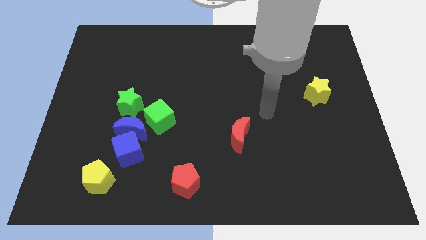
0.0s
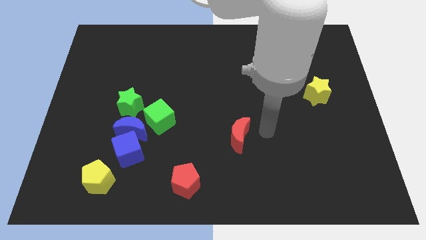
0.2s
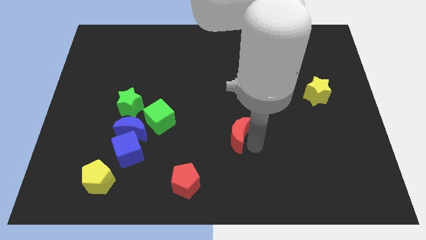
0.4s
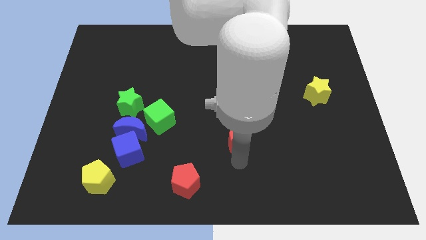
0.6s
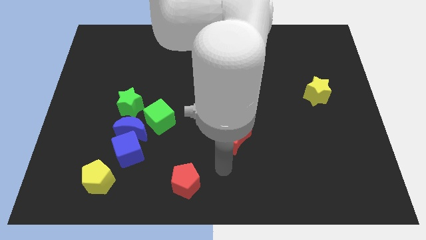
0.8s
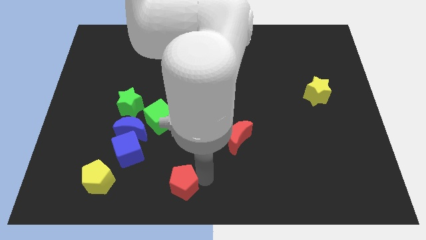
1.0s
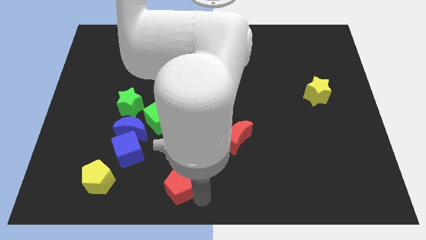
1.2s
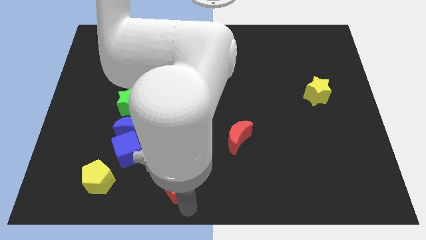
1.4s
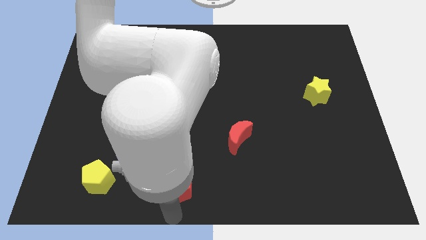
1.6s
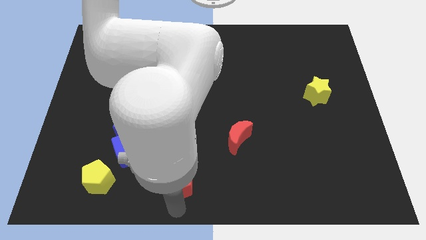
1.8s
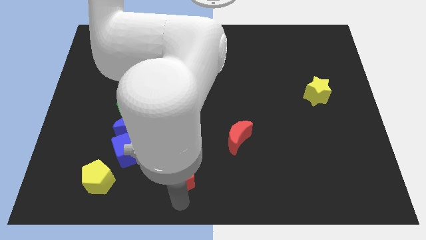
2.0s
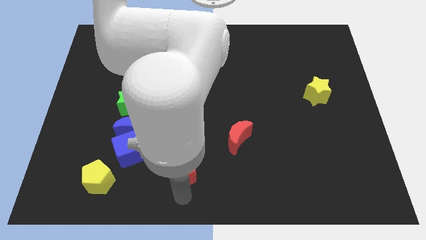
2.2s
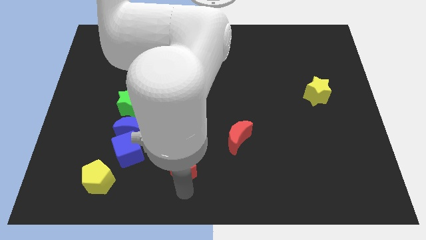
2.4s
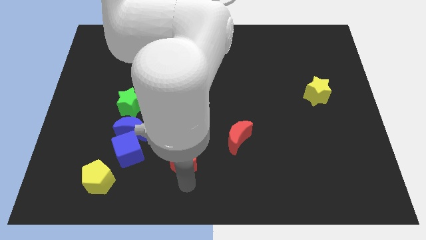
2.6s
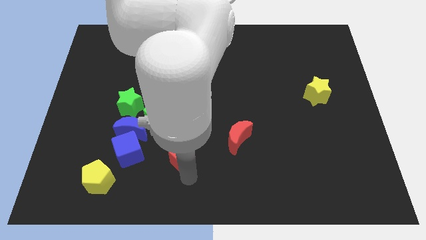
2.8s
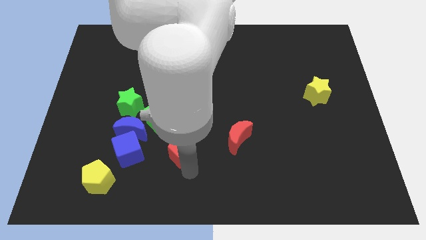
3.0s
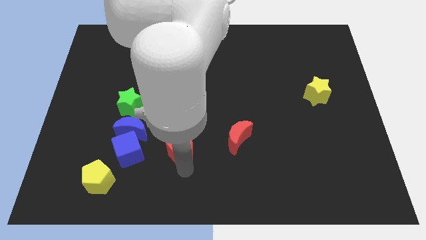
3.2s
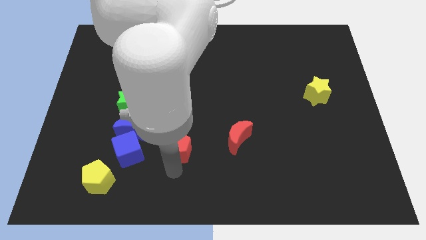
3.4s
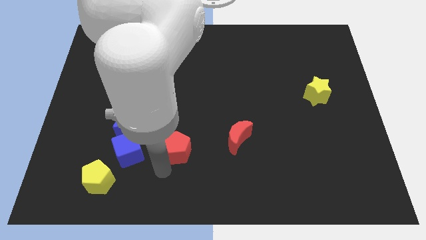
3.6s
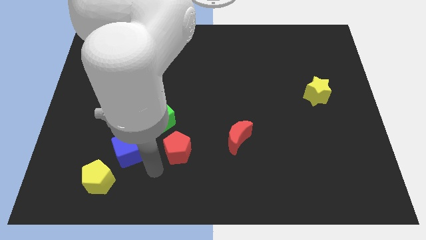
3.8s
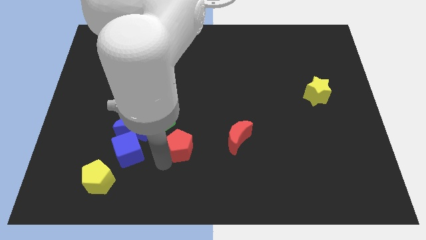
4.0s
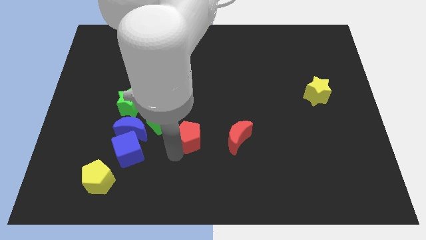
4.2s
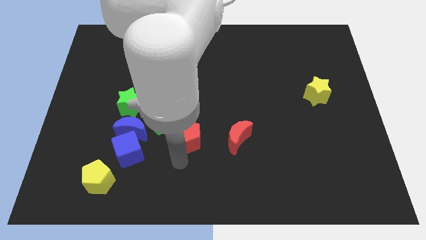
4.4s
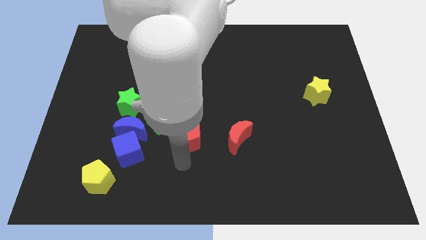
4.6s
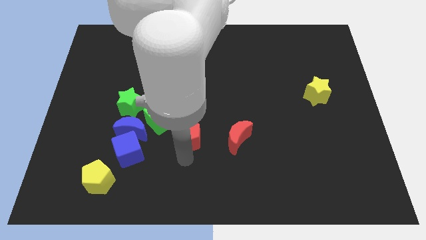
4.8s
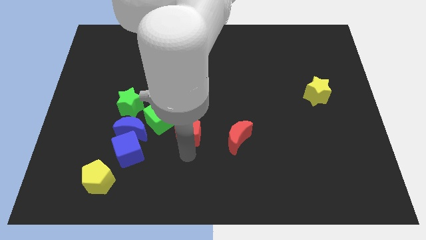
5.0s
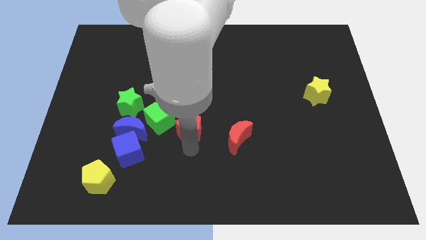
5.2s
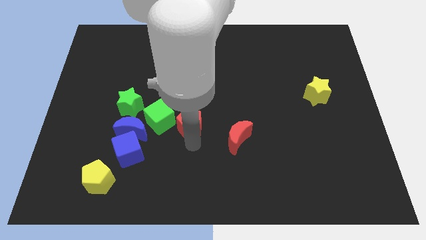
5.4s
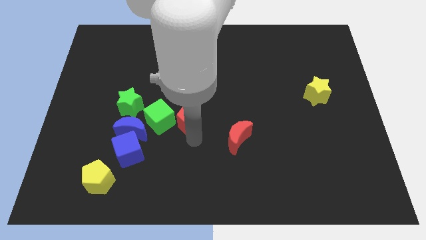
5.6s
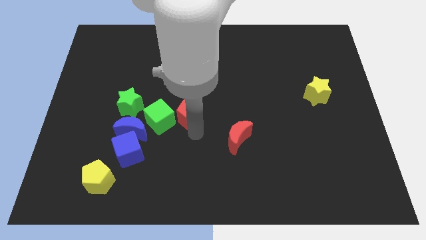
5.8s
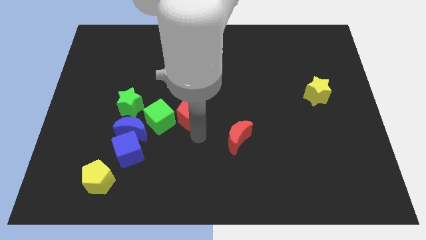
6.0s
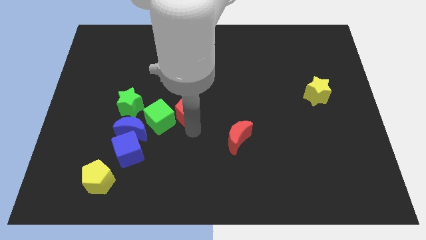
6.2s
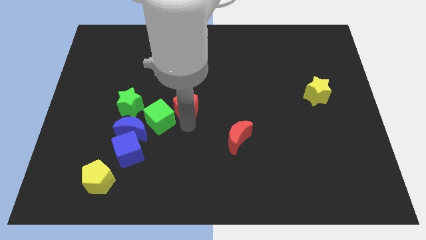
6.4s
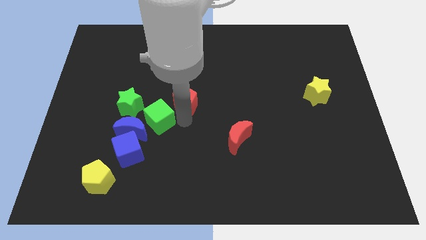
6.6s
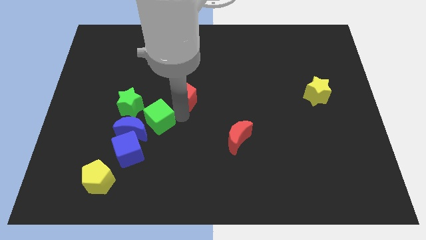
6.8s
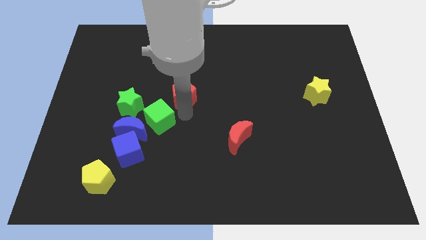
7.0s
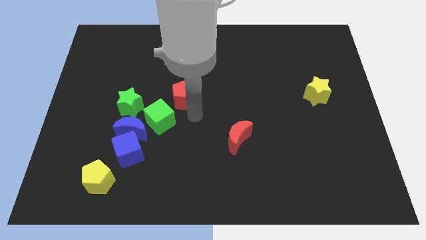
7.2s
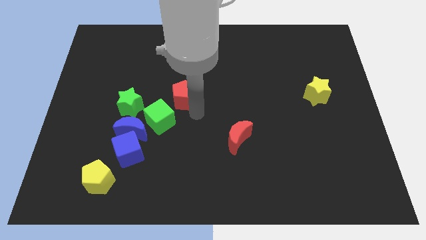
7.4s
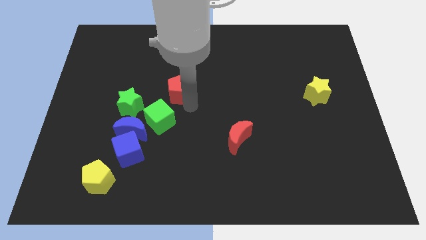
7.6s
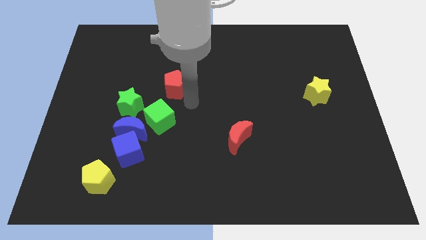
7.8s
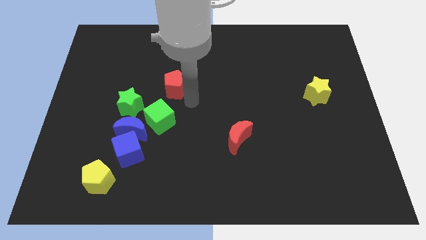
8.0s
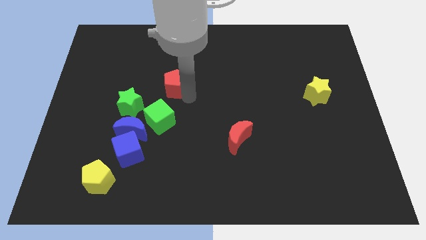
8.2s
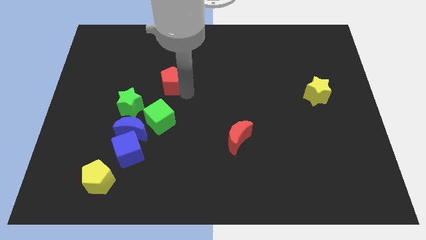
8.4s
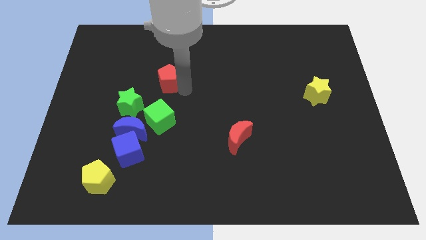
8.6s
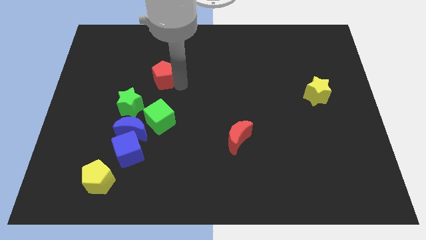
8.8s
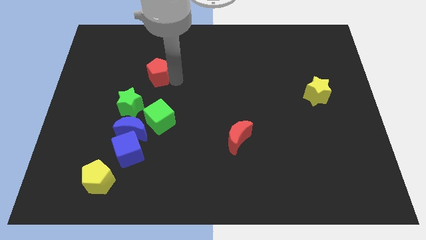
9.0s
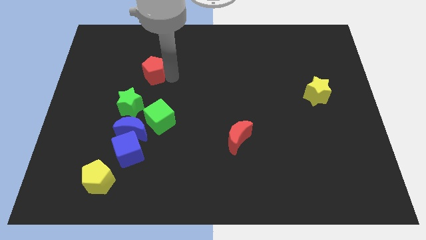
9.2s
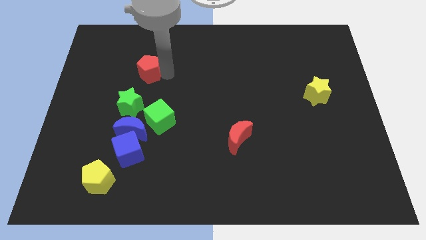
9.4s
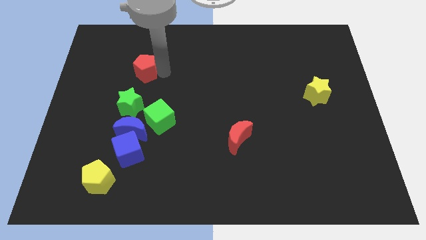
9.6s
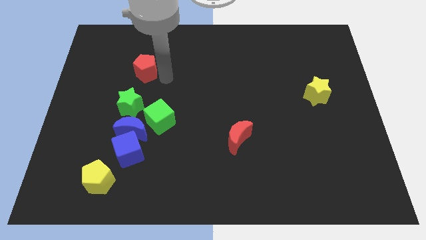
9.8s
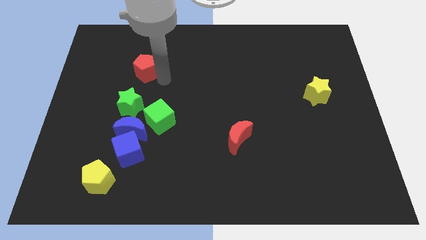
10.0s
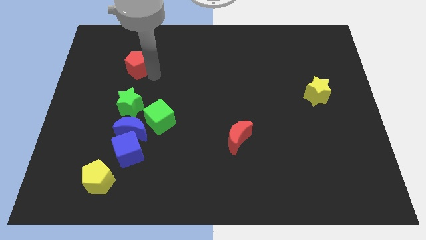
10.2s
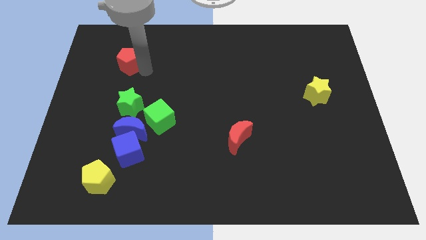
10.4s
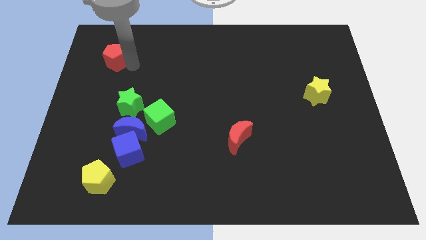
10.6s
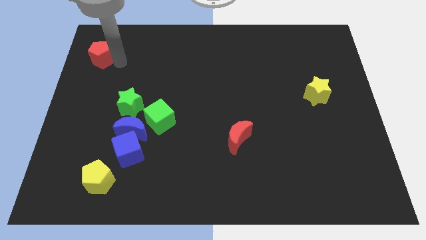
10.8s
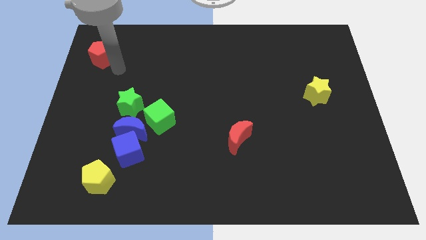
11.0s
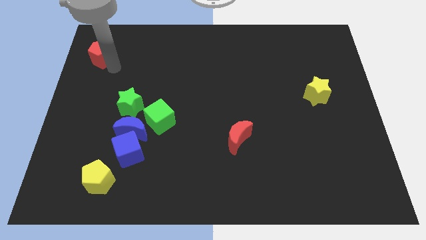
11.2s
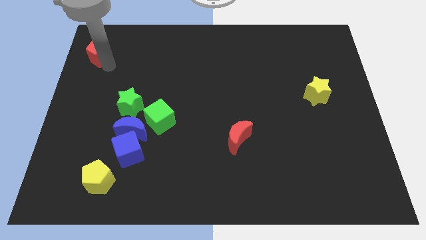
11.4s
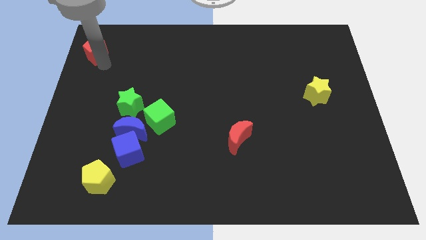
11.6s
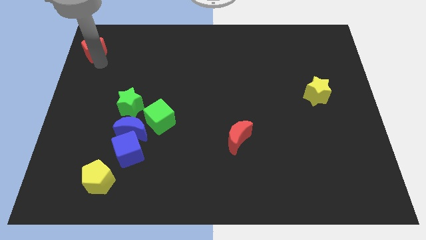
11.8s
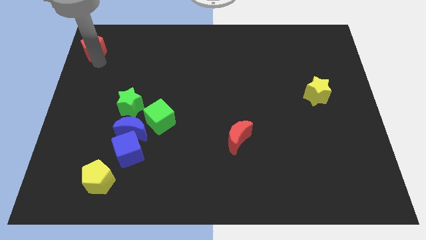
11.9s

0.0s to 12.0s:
push the red pentagon to the top left corner
